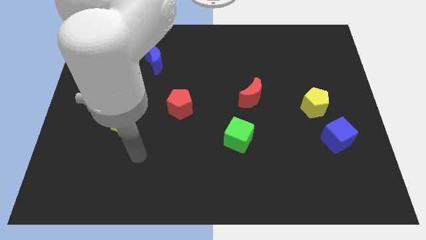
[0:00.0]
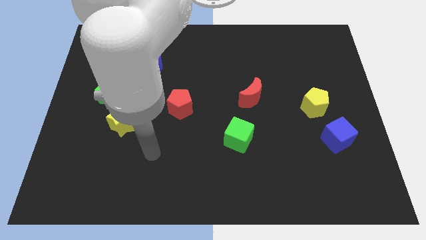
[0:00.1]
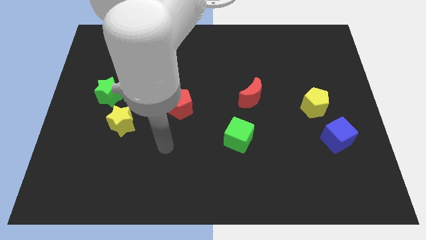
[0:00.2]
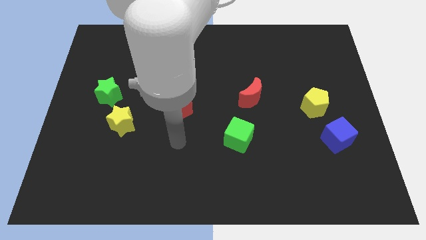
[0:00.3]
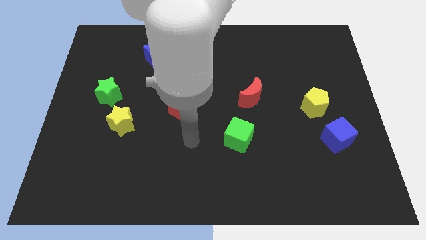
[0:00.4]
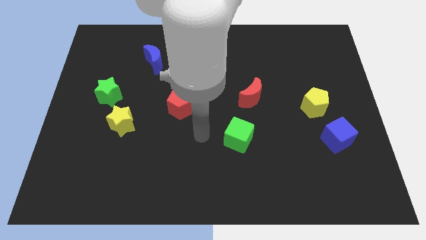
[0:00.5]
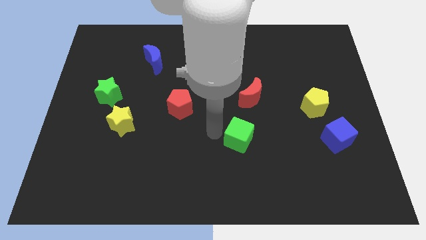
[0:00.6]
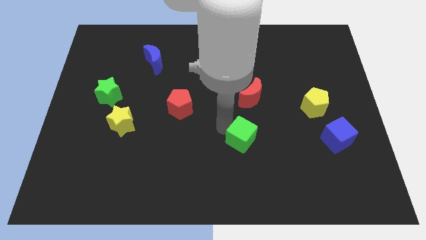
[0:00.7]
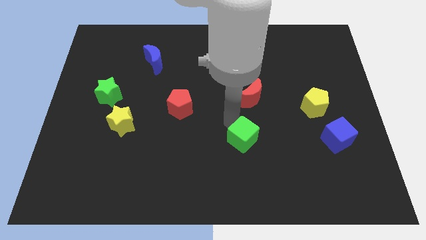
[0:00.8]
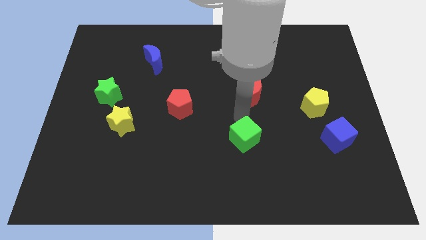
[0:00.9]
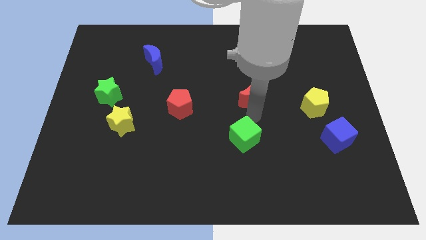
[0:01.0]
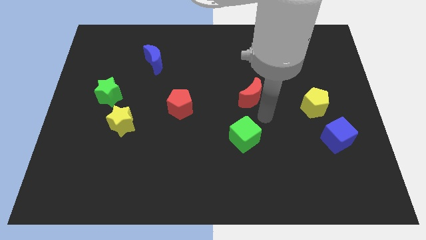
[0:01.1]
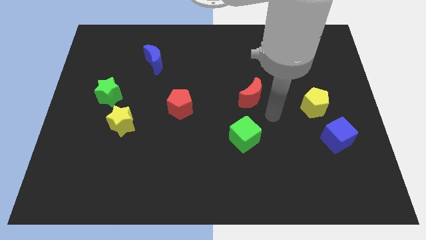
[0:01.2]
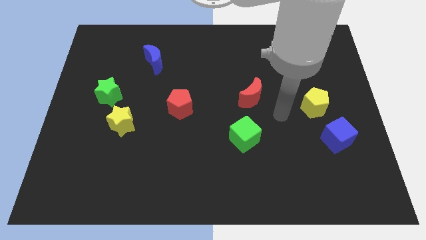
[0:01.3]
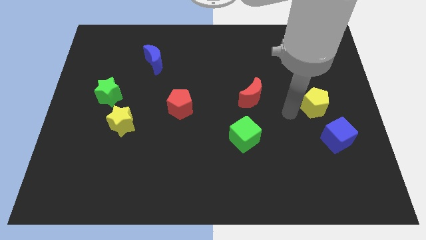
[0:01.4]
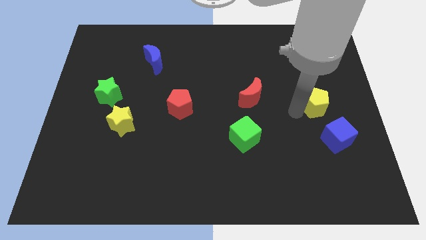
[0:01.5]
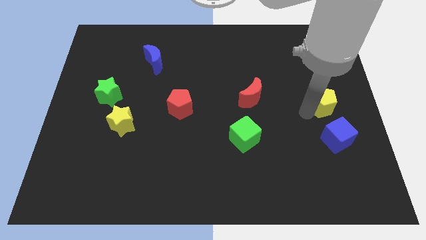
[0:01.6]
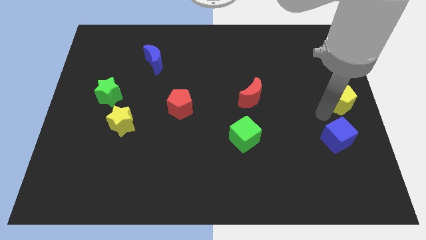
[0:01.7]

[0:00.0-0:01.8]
pull the blue cube apart from the yellow pentagon

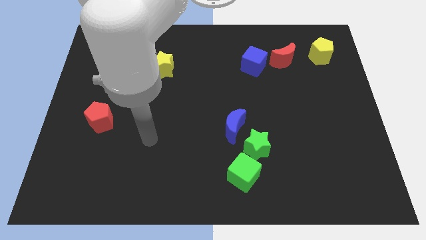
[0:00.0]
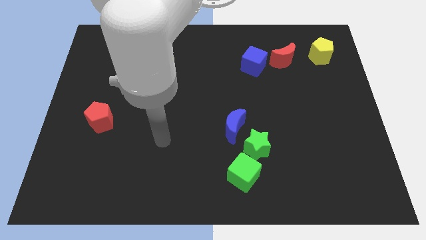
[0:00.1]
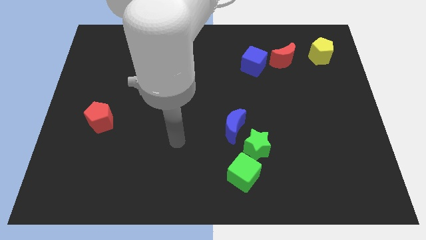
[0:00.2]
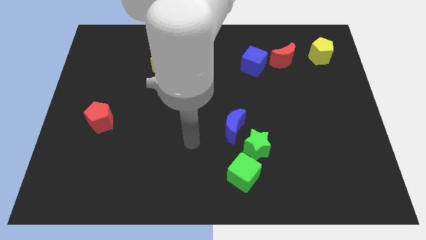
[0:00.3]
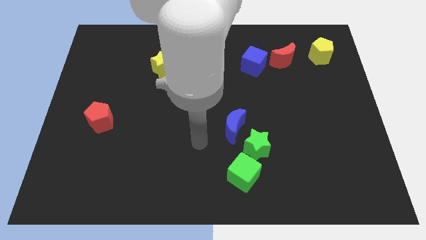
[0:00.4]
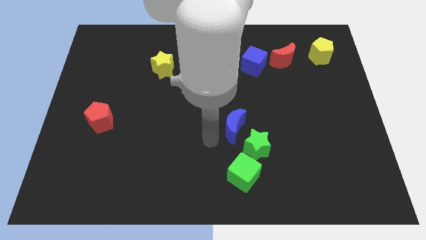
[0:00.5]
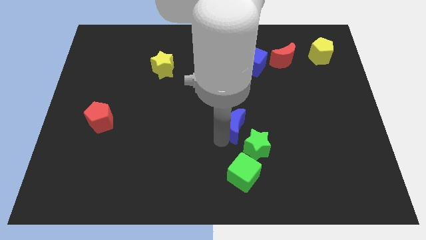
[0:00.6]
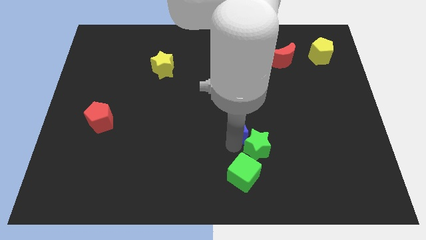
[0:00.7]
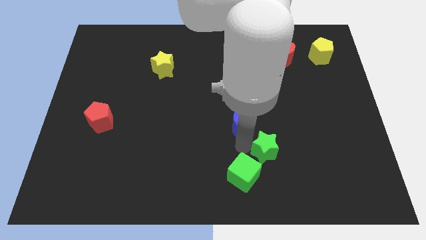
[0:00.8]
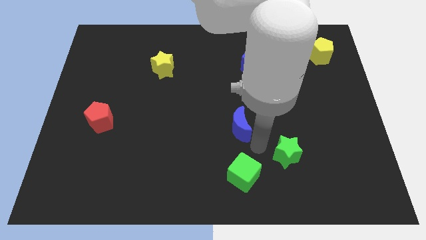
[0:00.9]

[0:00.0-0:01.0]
separate the blue moon from the green star

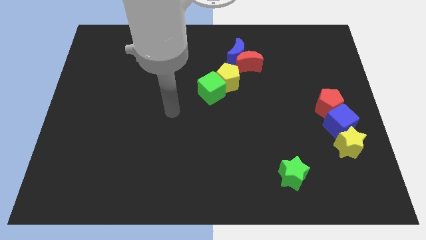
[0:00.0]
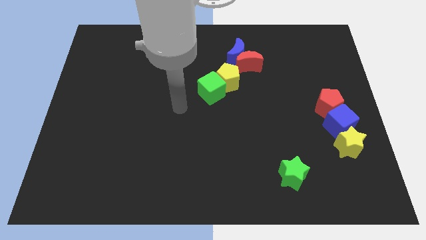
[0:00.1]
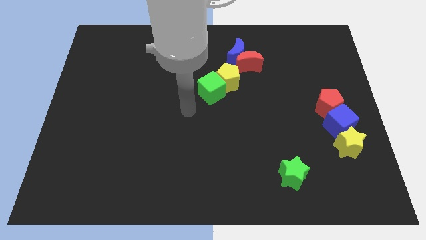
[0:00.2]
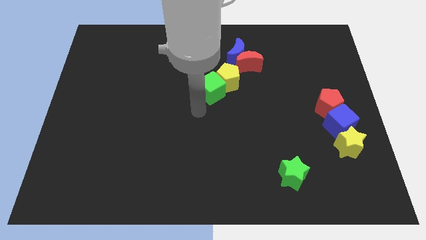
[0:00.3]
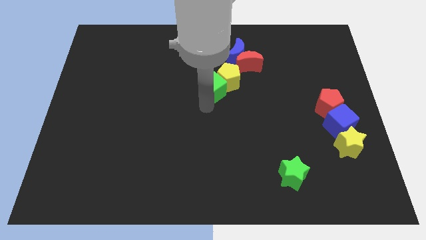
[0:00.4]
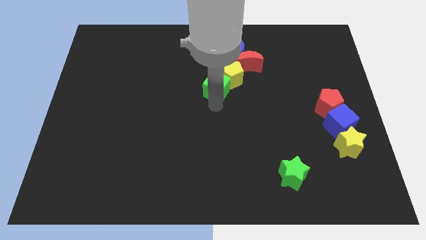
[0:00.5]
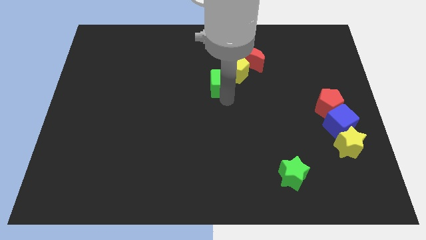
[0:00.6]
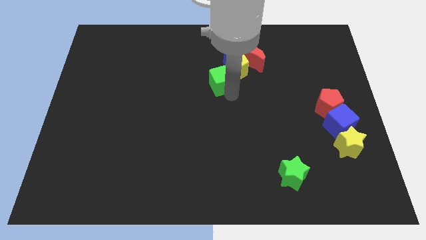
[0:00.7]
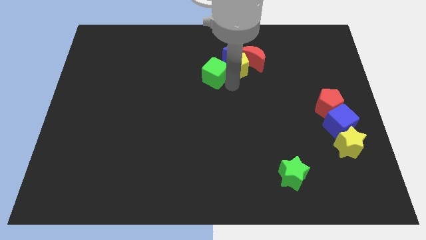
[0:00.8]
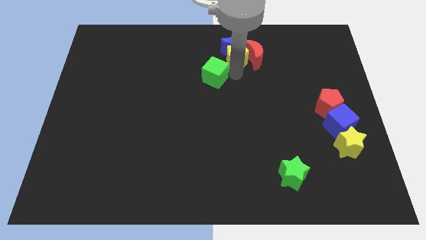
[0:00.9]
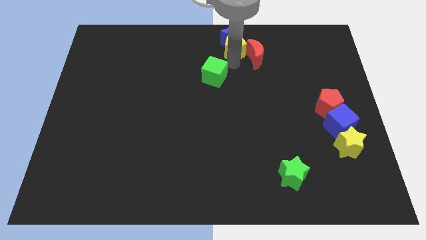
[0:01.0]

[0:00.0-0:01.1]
pull the green cube apart from the yellow pentagon

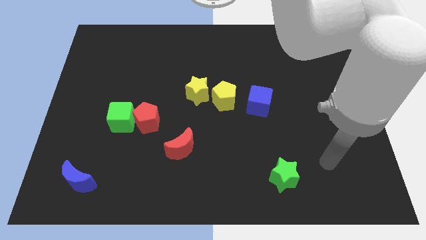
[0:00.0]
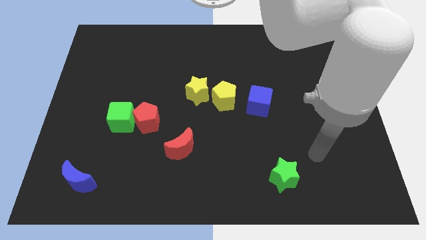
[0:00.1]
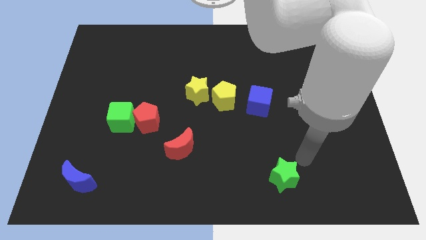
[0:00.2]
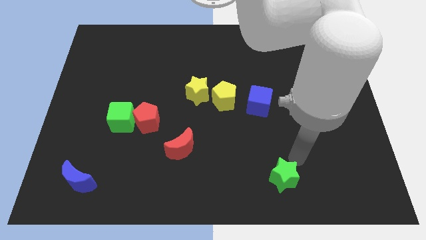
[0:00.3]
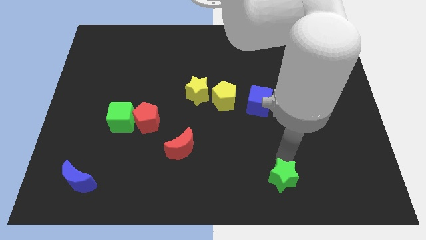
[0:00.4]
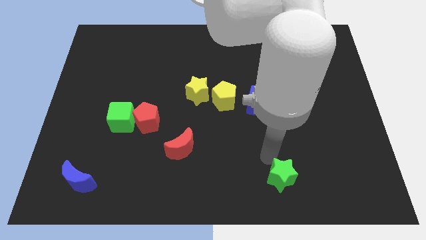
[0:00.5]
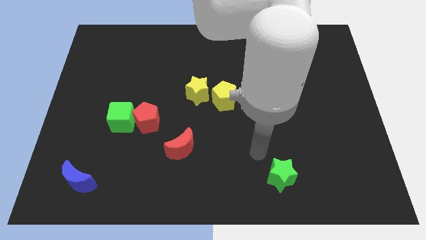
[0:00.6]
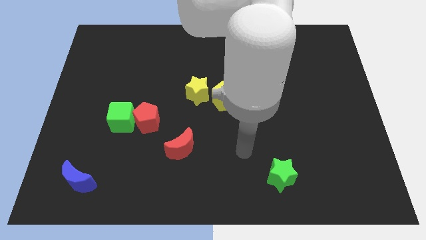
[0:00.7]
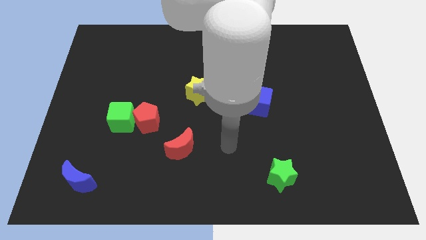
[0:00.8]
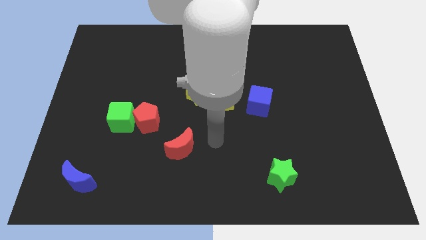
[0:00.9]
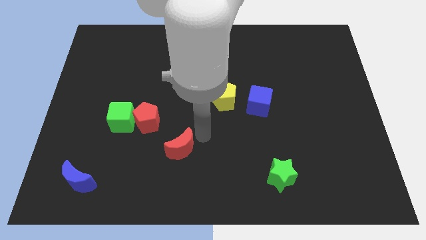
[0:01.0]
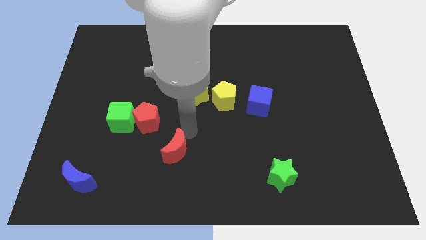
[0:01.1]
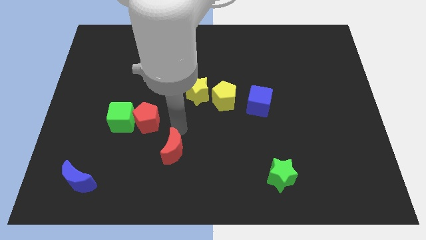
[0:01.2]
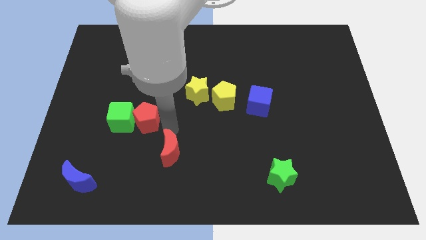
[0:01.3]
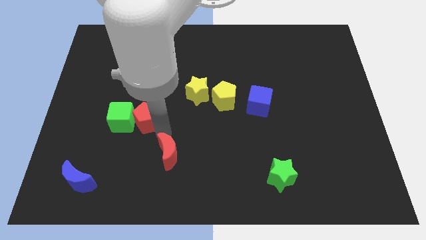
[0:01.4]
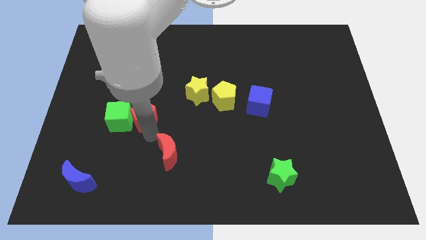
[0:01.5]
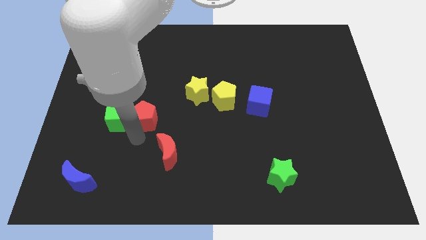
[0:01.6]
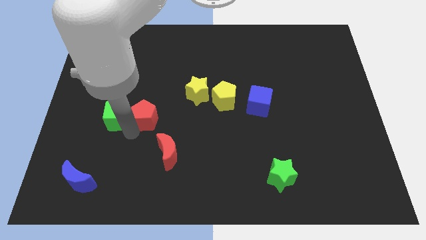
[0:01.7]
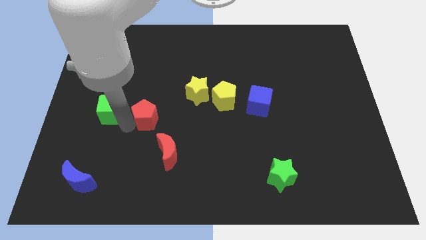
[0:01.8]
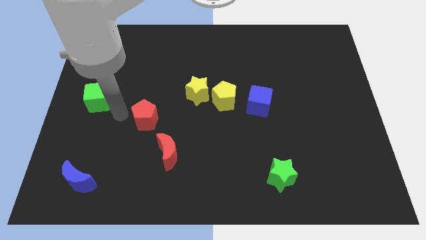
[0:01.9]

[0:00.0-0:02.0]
move the red pentagon away from the green cube

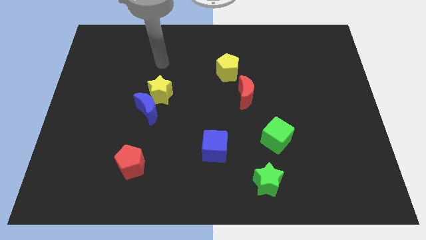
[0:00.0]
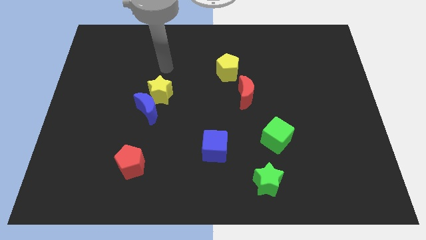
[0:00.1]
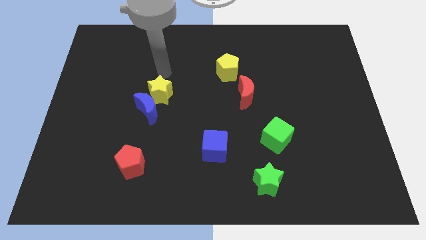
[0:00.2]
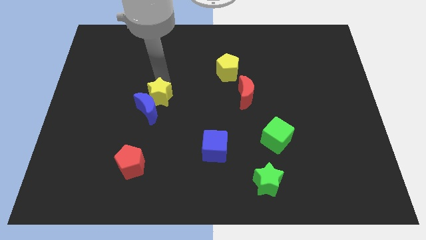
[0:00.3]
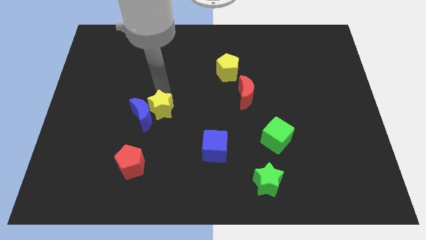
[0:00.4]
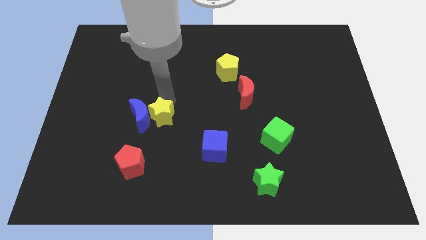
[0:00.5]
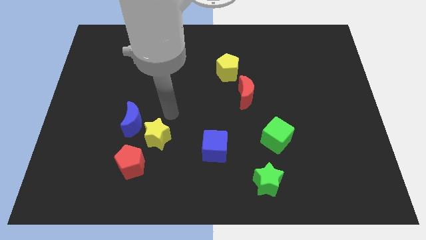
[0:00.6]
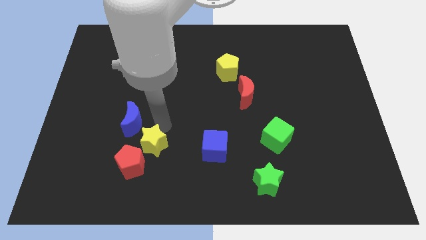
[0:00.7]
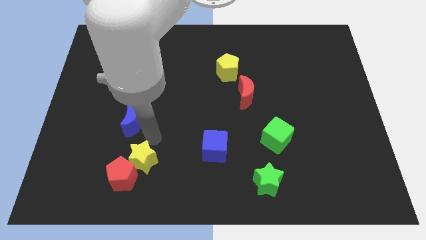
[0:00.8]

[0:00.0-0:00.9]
separate the blue moon from the yellow star

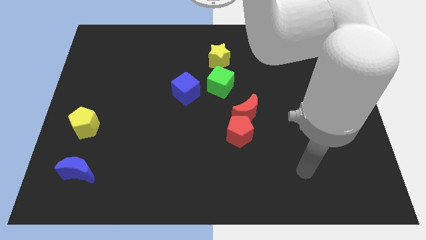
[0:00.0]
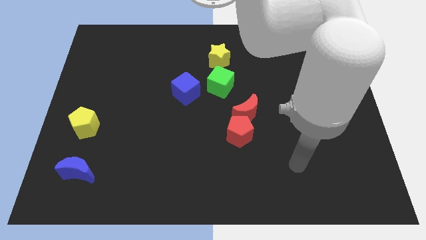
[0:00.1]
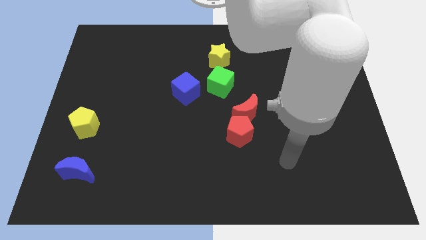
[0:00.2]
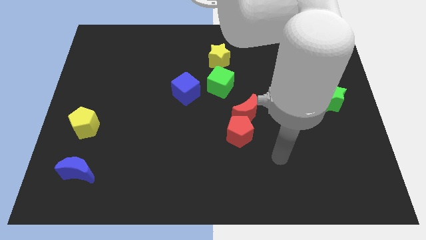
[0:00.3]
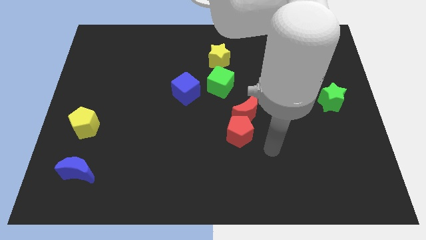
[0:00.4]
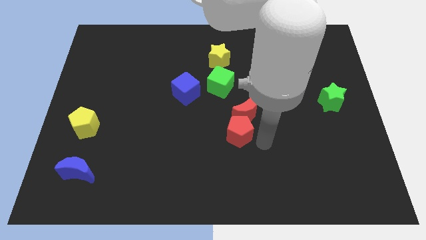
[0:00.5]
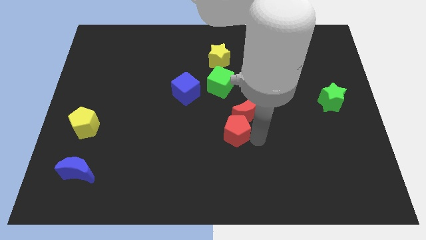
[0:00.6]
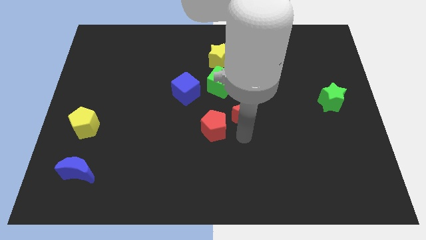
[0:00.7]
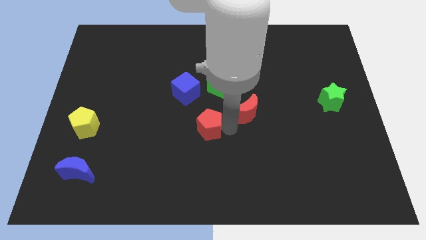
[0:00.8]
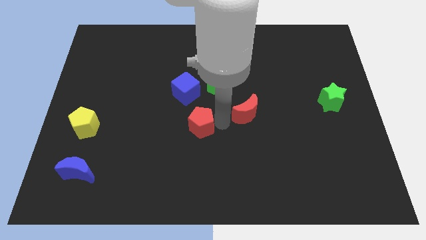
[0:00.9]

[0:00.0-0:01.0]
separate the red moon from the red pentagon

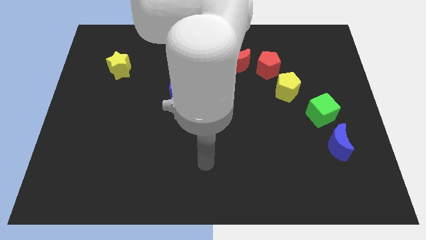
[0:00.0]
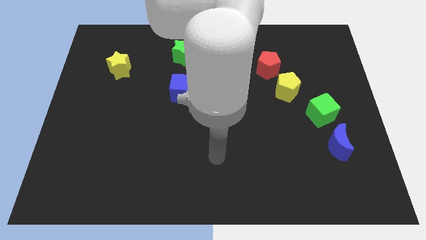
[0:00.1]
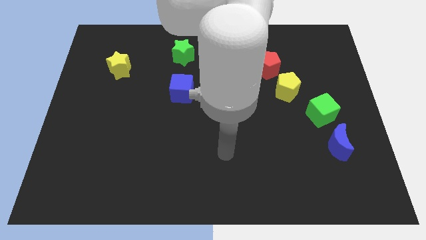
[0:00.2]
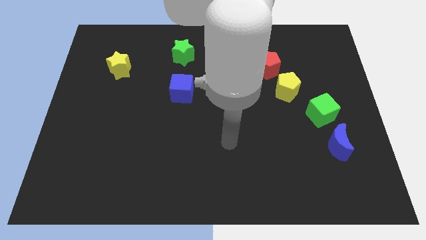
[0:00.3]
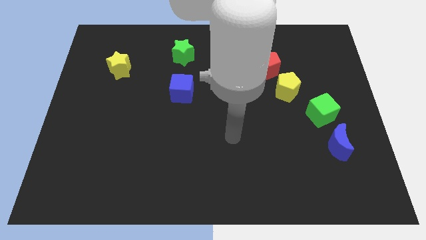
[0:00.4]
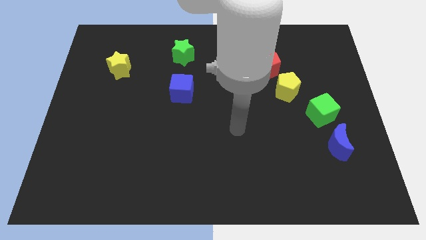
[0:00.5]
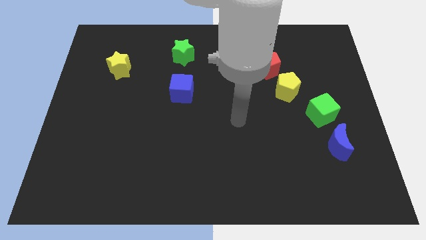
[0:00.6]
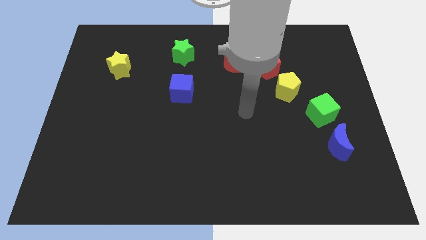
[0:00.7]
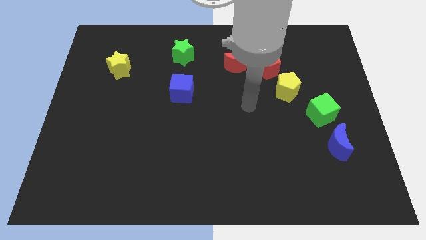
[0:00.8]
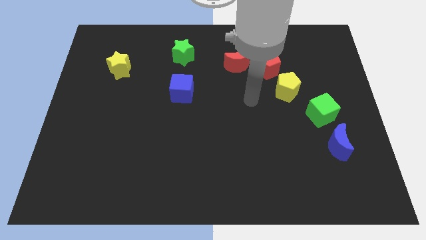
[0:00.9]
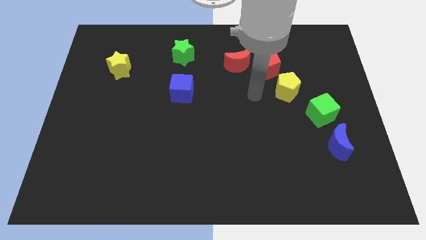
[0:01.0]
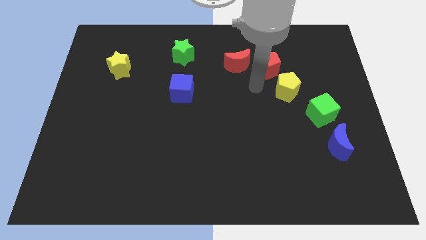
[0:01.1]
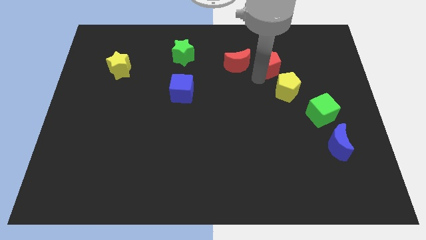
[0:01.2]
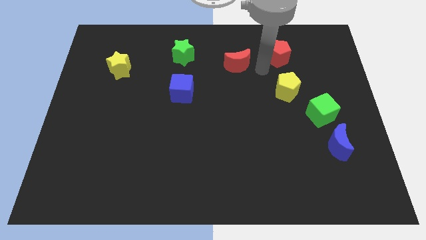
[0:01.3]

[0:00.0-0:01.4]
pull the red moon apart from the red pentagon
